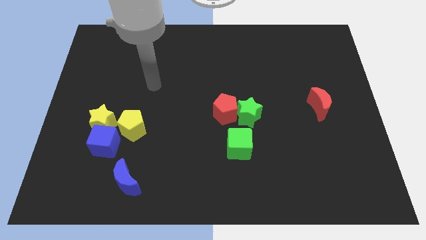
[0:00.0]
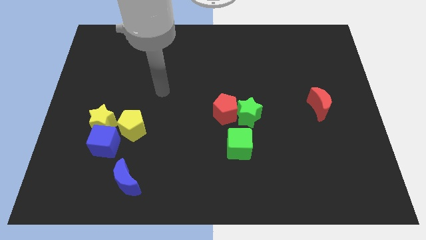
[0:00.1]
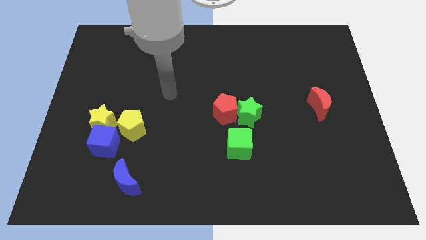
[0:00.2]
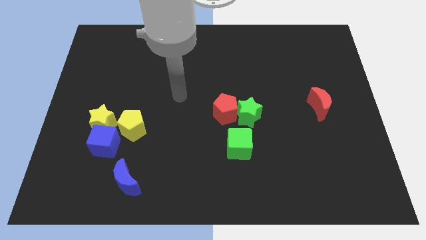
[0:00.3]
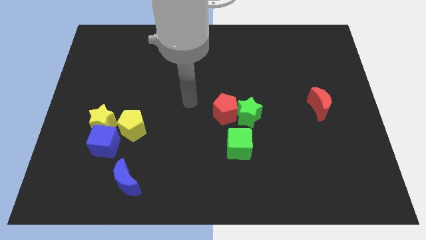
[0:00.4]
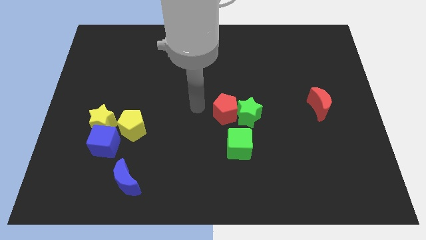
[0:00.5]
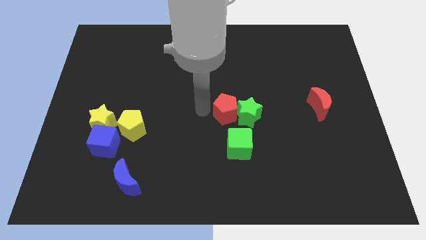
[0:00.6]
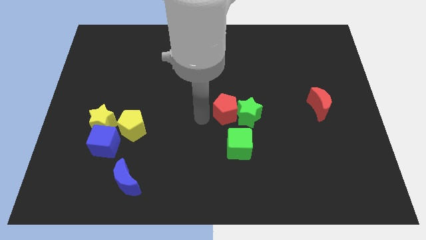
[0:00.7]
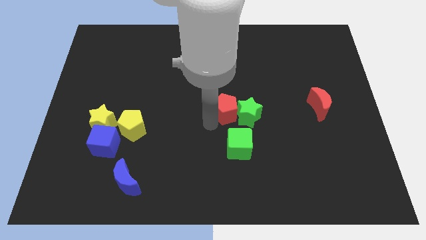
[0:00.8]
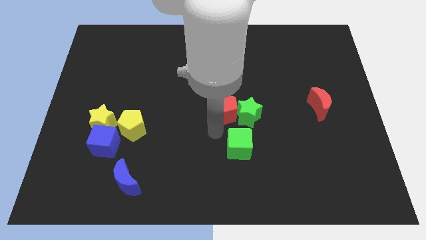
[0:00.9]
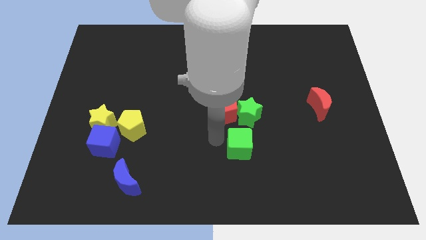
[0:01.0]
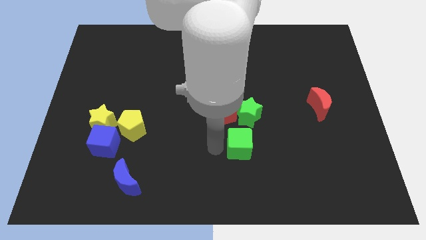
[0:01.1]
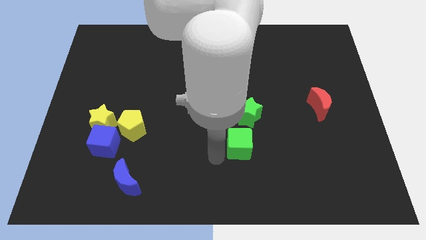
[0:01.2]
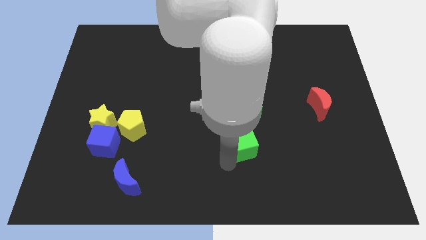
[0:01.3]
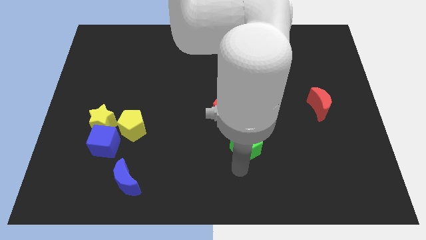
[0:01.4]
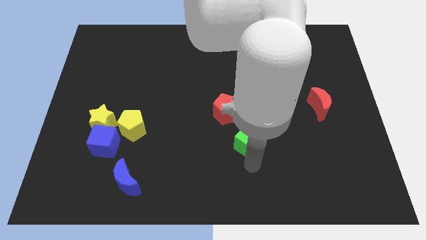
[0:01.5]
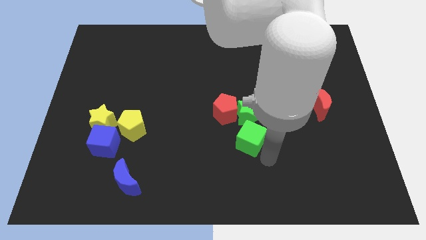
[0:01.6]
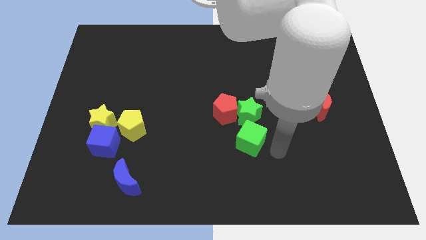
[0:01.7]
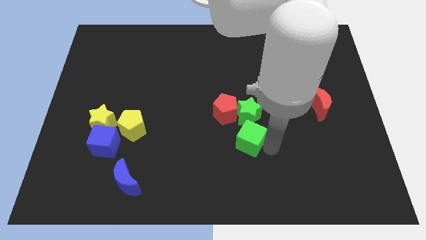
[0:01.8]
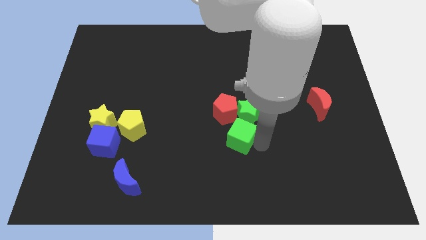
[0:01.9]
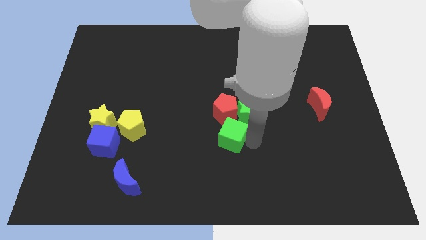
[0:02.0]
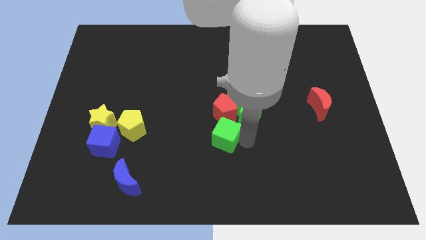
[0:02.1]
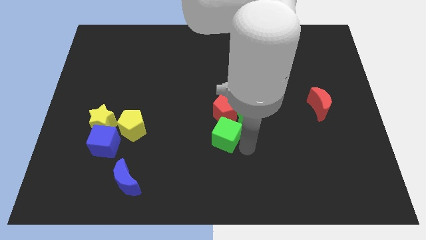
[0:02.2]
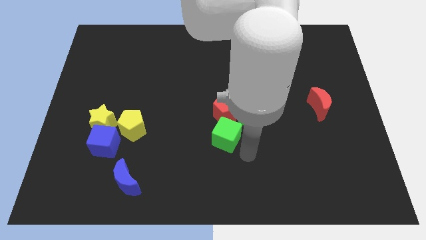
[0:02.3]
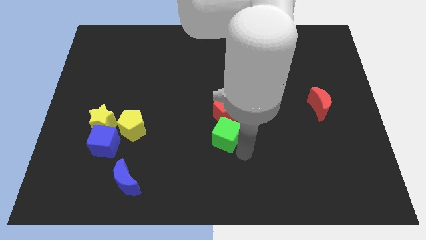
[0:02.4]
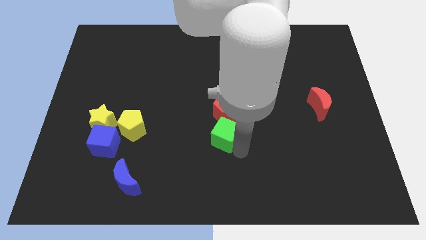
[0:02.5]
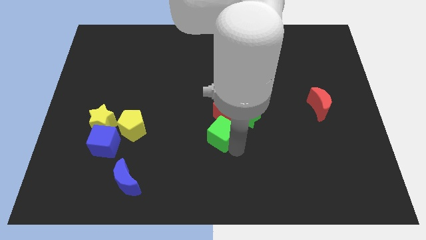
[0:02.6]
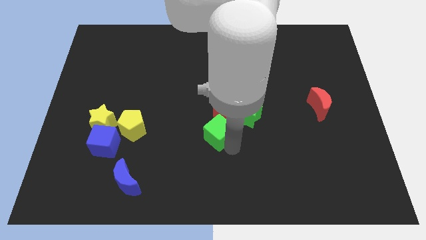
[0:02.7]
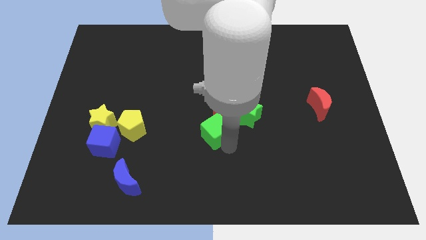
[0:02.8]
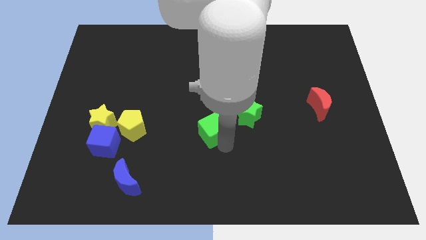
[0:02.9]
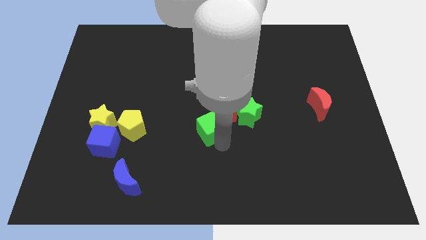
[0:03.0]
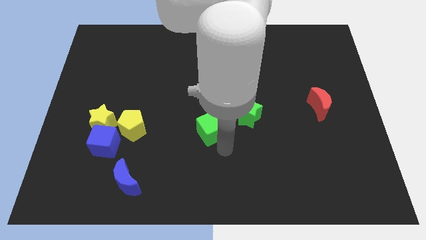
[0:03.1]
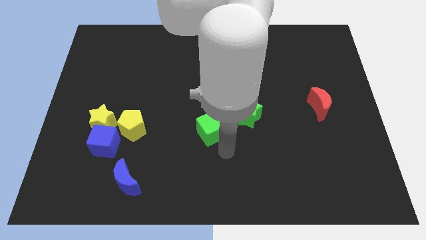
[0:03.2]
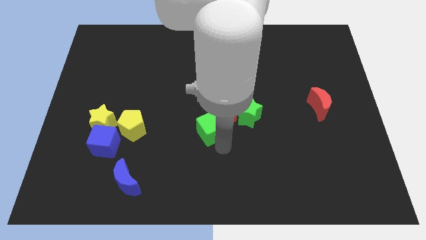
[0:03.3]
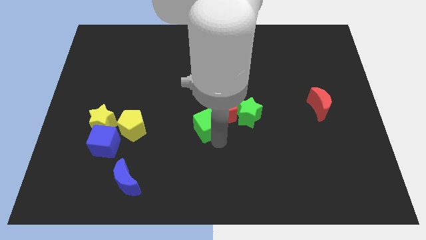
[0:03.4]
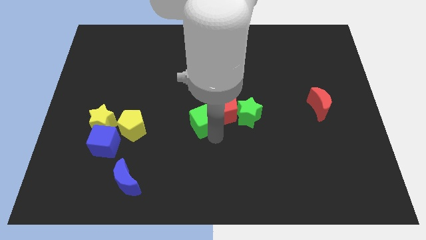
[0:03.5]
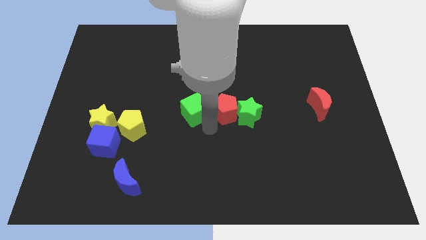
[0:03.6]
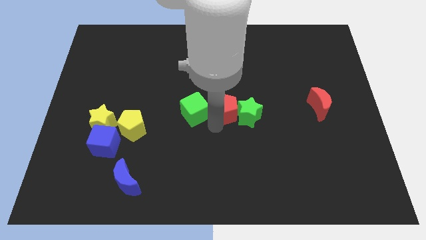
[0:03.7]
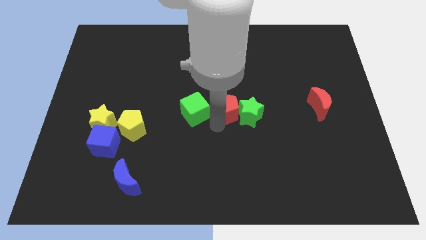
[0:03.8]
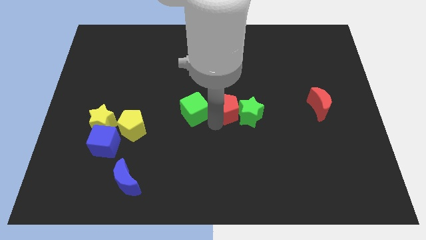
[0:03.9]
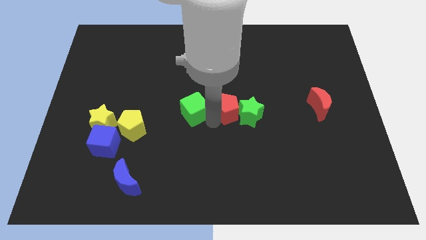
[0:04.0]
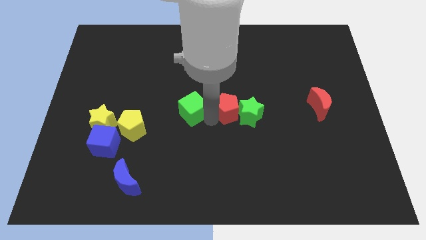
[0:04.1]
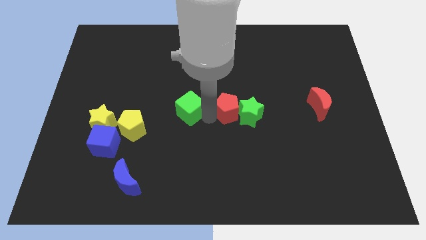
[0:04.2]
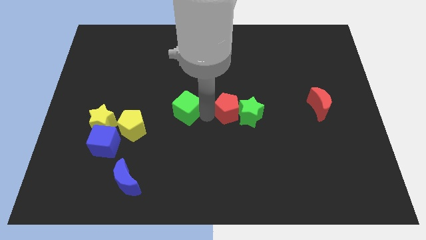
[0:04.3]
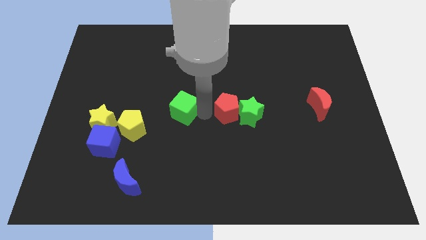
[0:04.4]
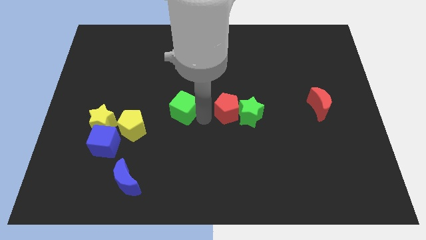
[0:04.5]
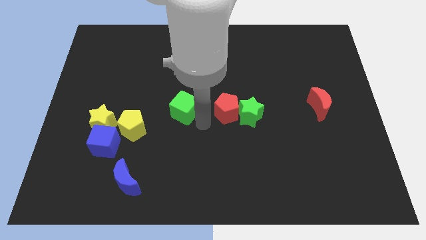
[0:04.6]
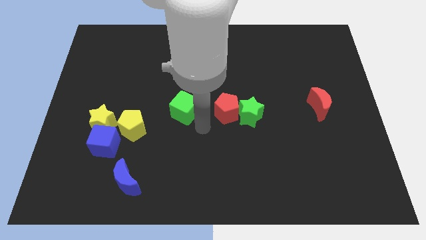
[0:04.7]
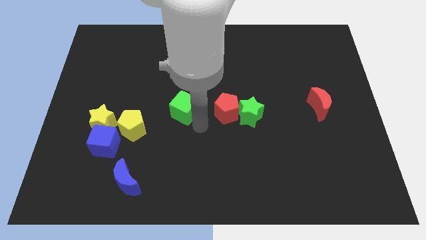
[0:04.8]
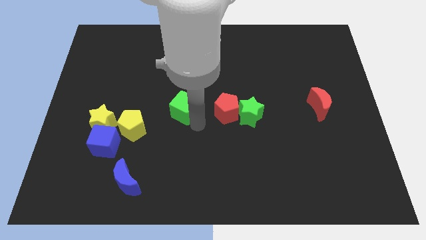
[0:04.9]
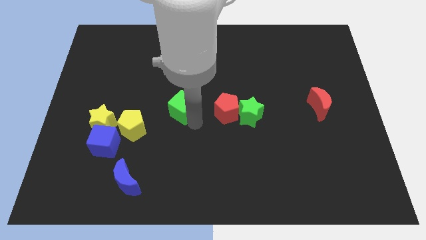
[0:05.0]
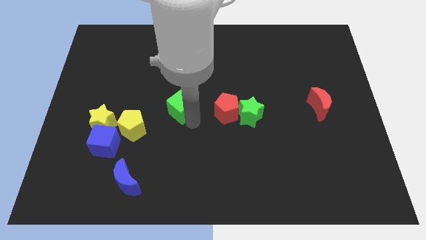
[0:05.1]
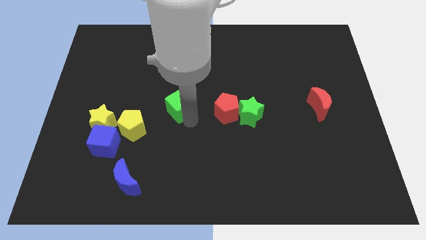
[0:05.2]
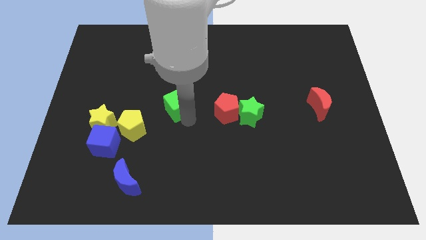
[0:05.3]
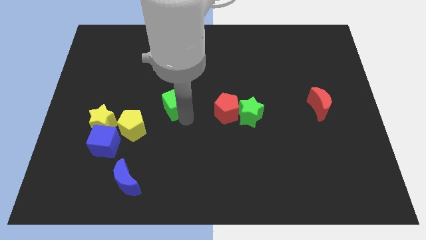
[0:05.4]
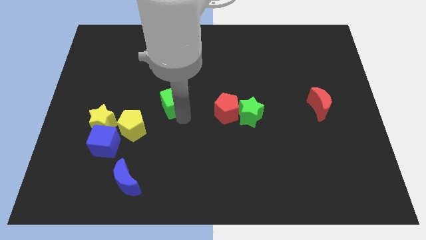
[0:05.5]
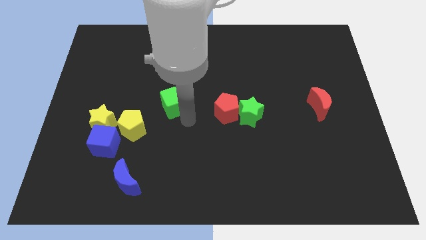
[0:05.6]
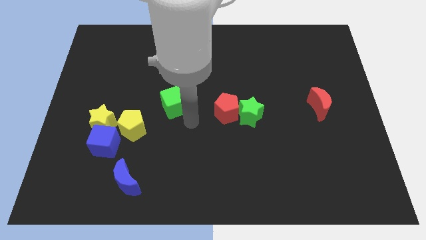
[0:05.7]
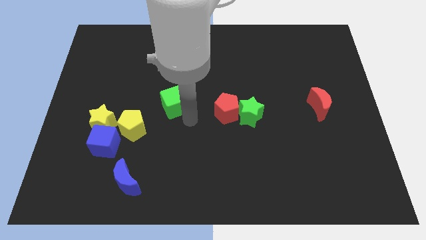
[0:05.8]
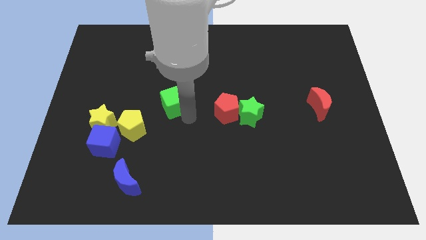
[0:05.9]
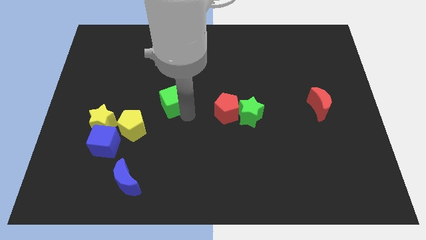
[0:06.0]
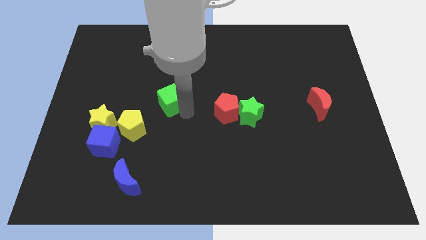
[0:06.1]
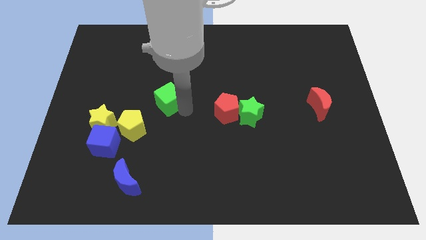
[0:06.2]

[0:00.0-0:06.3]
move the green cube up and then left

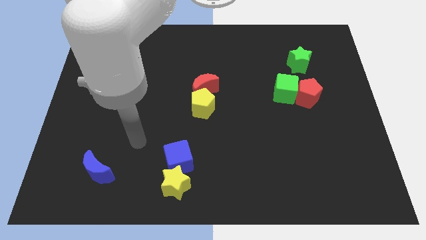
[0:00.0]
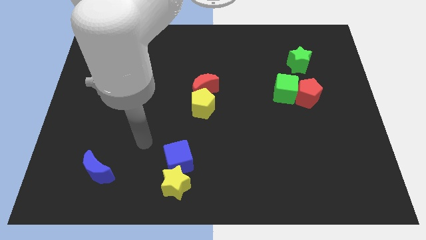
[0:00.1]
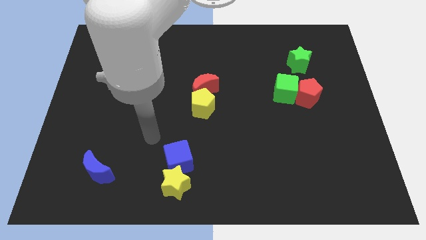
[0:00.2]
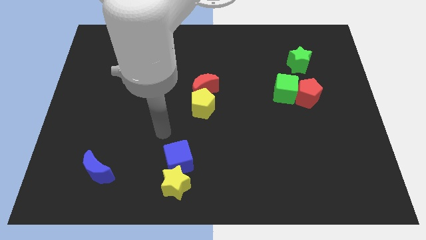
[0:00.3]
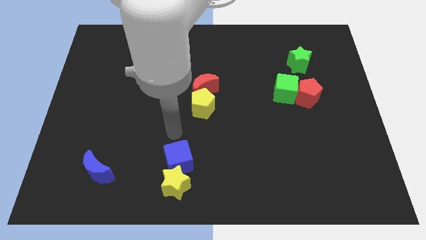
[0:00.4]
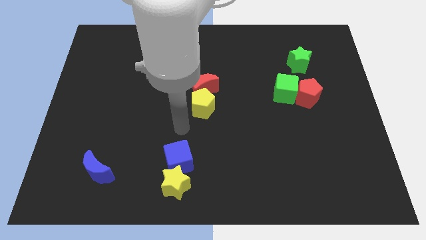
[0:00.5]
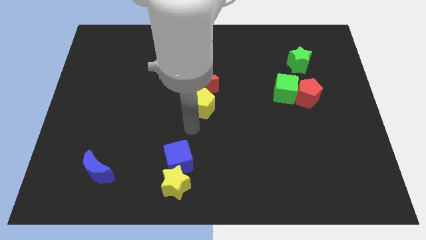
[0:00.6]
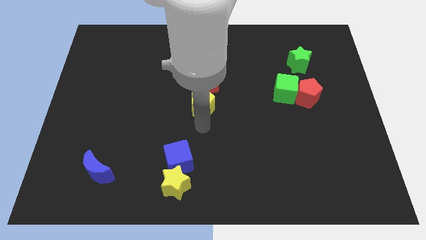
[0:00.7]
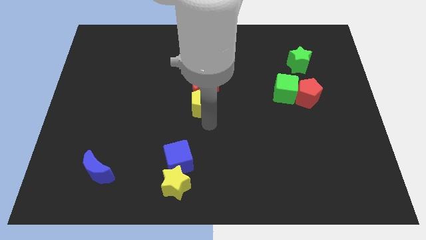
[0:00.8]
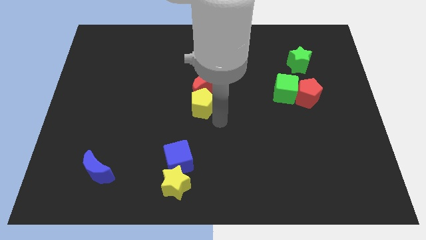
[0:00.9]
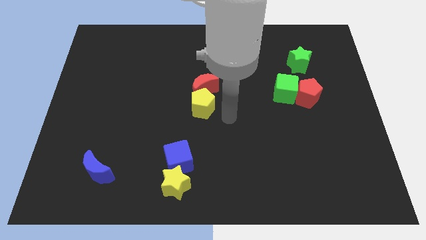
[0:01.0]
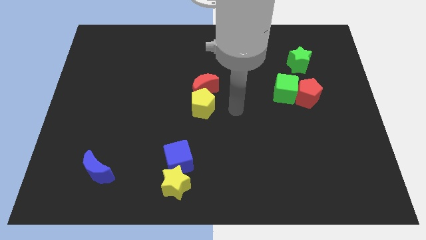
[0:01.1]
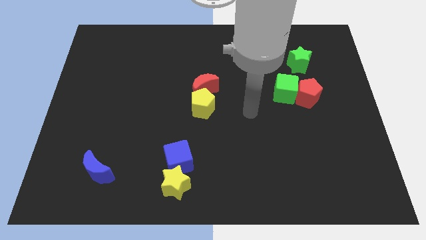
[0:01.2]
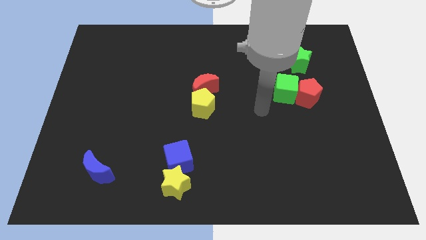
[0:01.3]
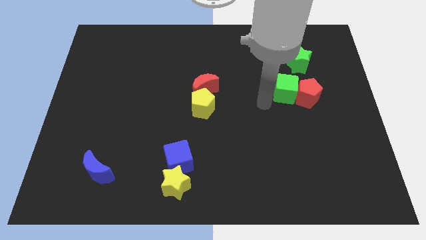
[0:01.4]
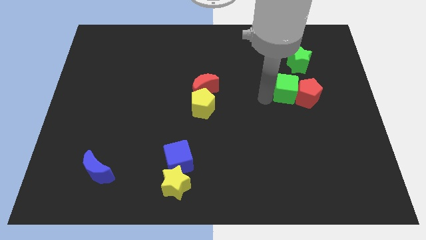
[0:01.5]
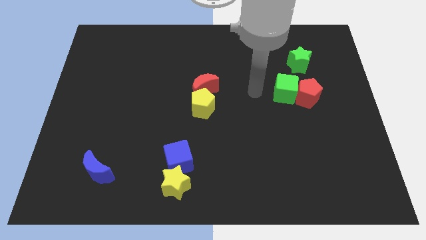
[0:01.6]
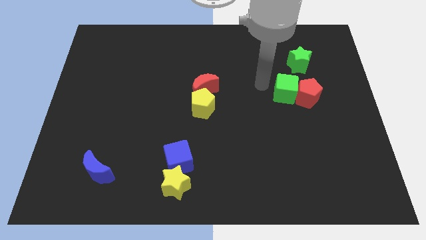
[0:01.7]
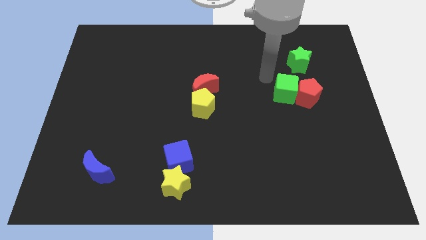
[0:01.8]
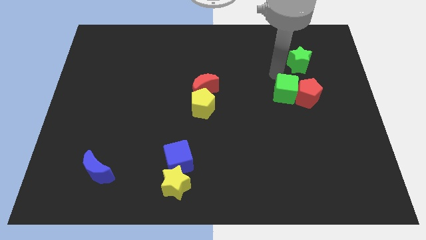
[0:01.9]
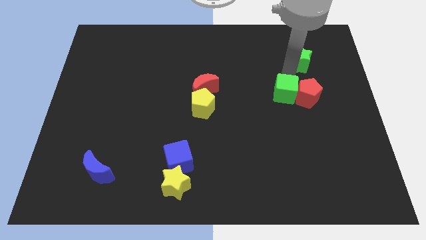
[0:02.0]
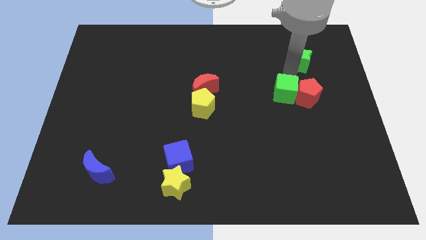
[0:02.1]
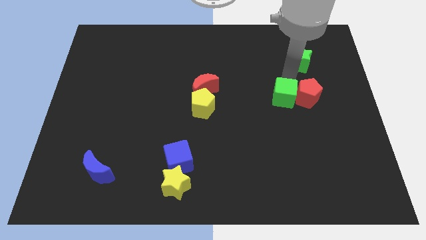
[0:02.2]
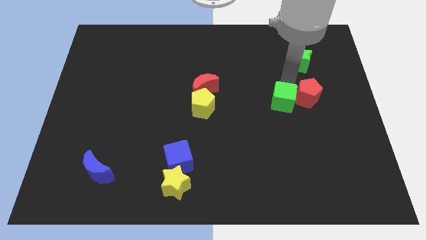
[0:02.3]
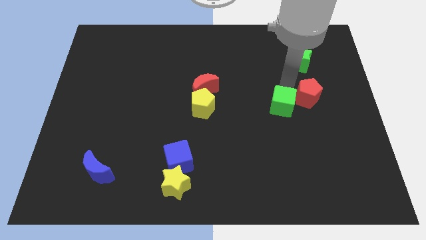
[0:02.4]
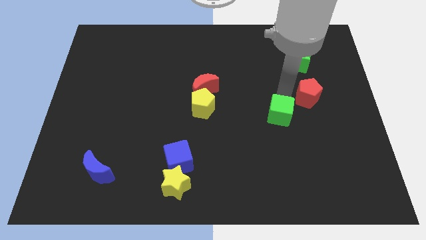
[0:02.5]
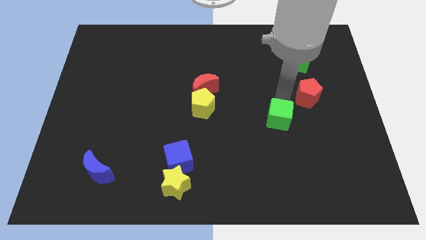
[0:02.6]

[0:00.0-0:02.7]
move the green cube downwards a little bit
